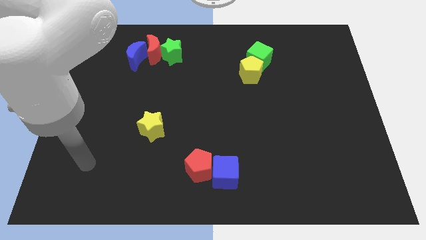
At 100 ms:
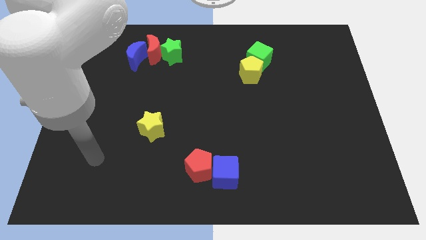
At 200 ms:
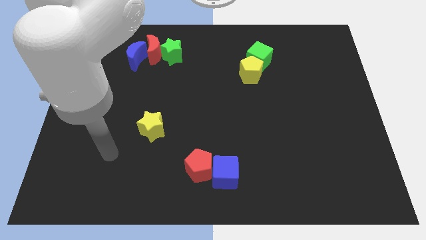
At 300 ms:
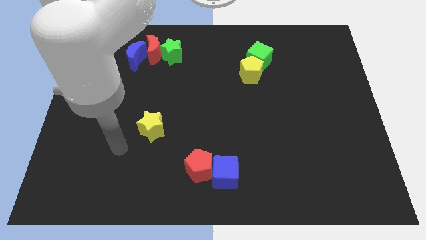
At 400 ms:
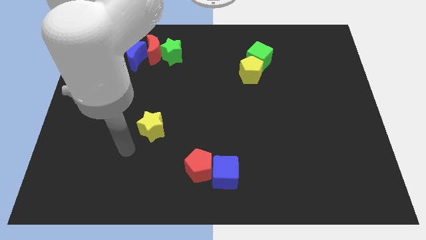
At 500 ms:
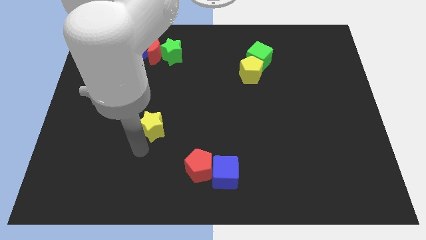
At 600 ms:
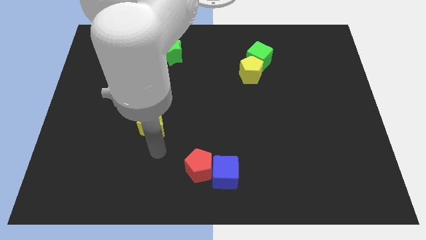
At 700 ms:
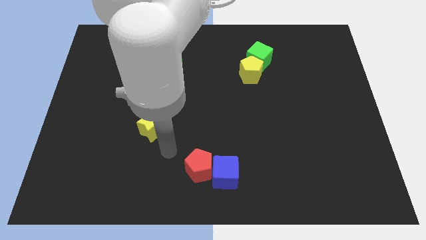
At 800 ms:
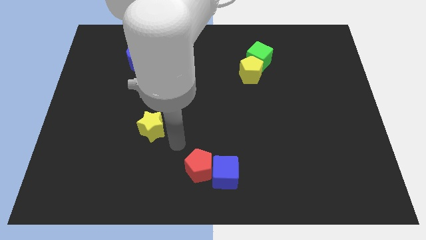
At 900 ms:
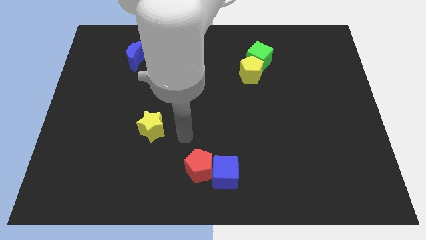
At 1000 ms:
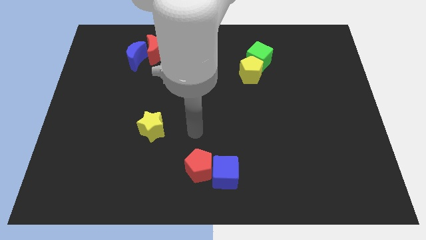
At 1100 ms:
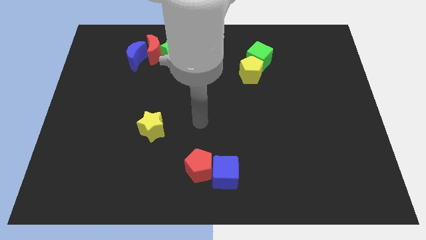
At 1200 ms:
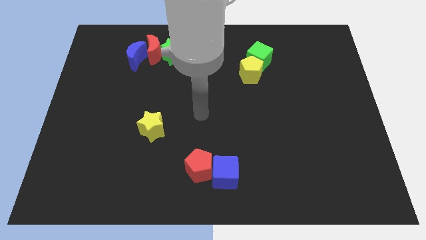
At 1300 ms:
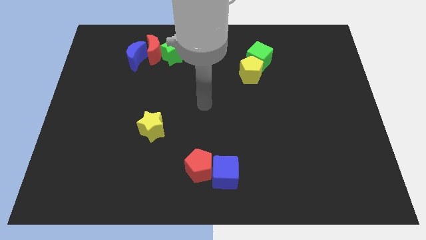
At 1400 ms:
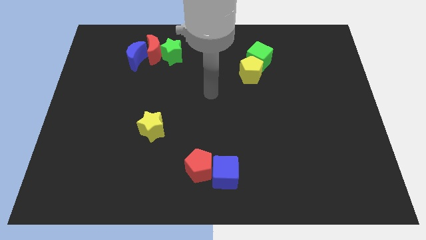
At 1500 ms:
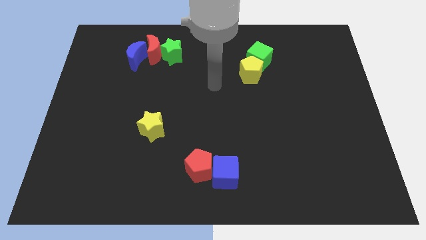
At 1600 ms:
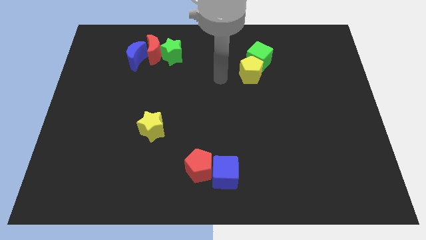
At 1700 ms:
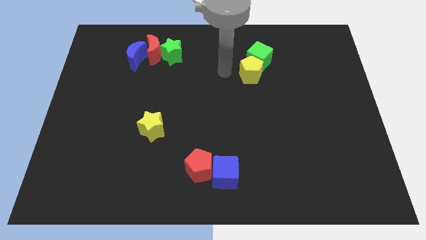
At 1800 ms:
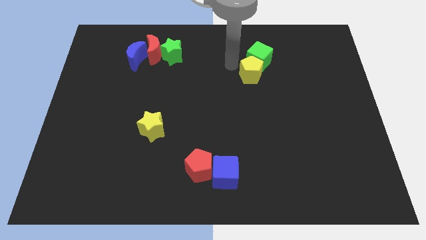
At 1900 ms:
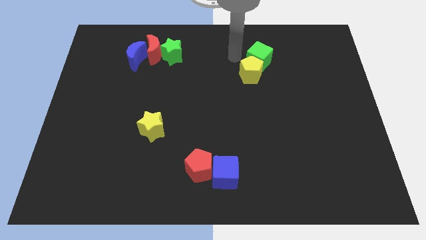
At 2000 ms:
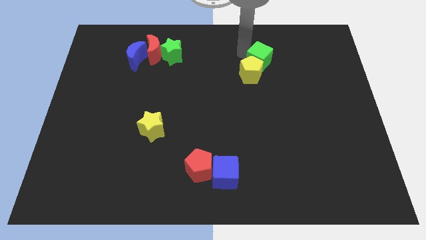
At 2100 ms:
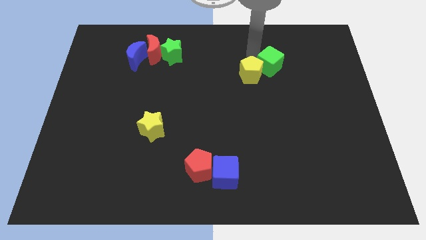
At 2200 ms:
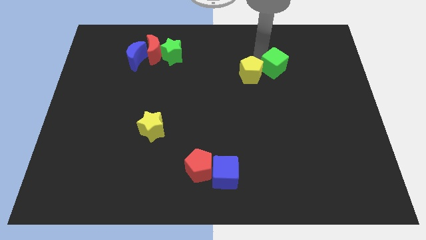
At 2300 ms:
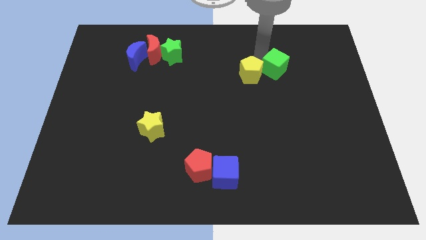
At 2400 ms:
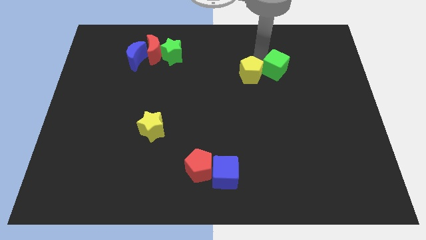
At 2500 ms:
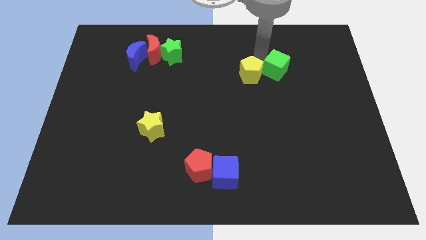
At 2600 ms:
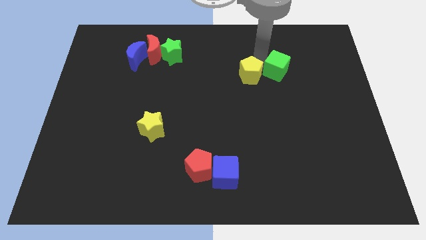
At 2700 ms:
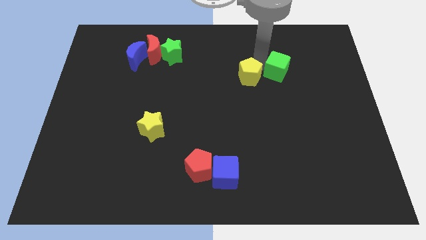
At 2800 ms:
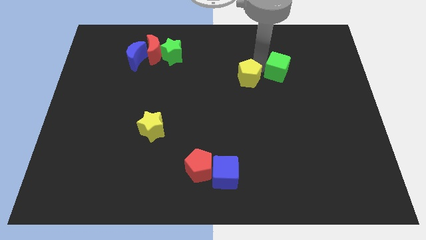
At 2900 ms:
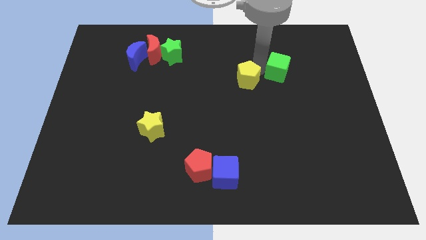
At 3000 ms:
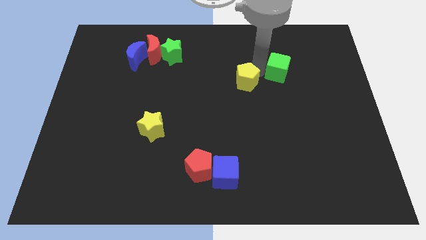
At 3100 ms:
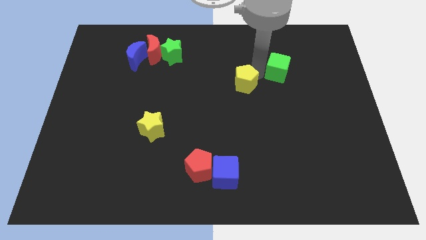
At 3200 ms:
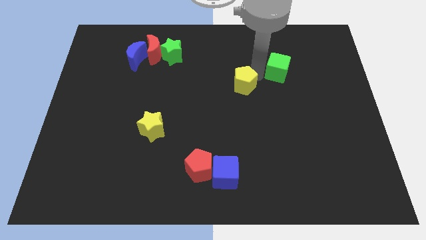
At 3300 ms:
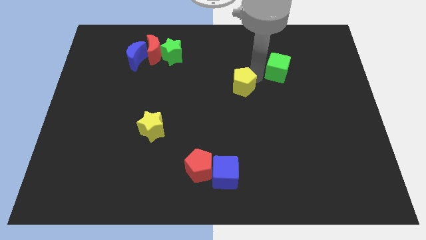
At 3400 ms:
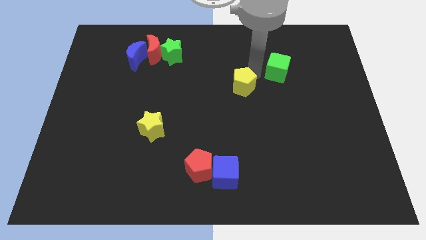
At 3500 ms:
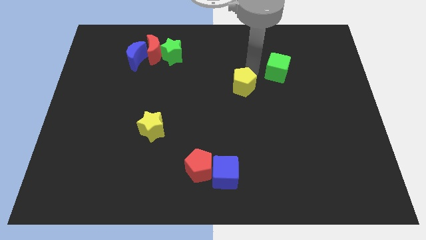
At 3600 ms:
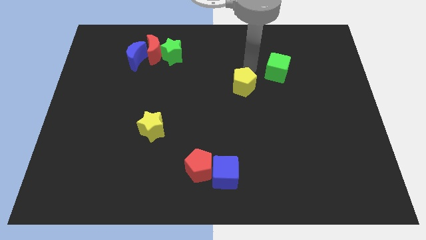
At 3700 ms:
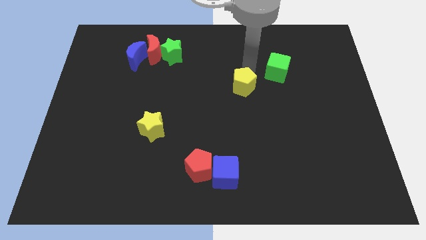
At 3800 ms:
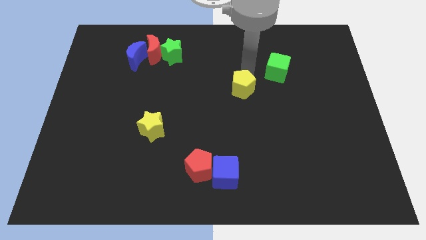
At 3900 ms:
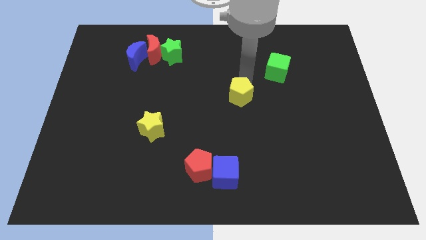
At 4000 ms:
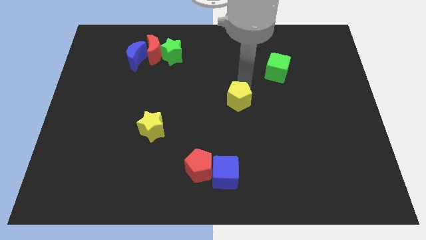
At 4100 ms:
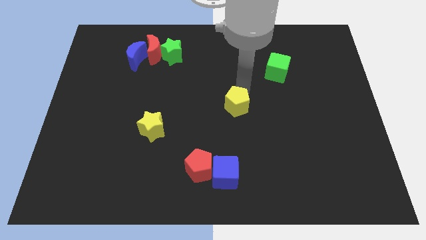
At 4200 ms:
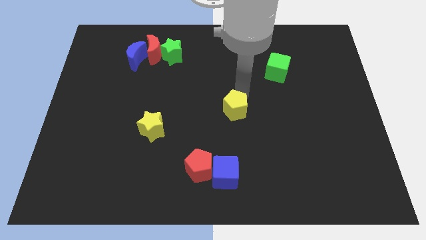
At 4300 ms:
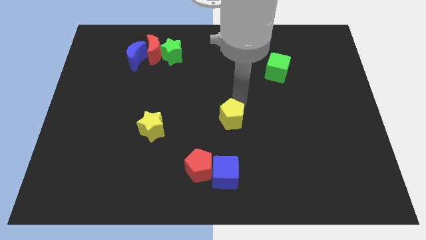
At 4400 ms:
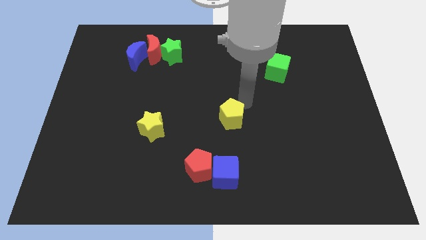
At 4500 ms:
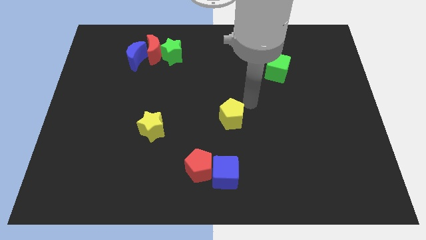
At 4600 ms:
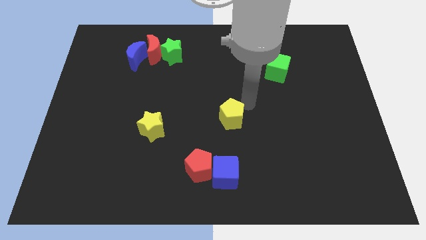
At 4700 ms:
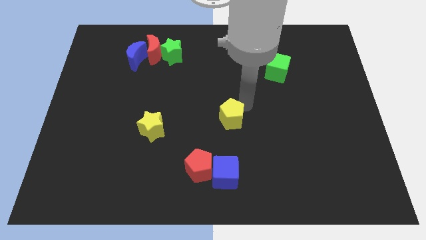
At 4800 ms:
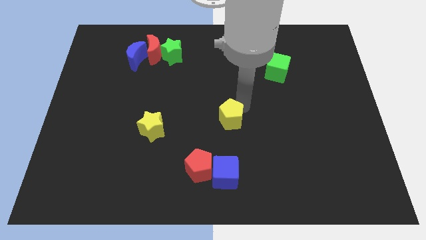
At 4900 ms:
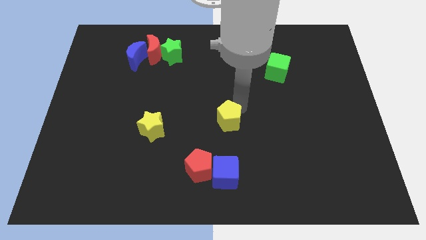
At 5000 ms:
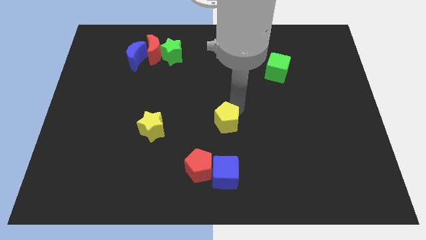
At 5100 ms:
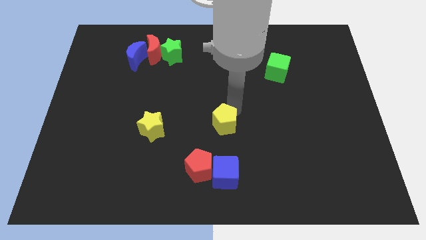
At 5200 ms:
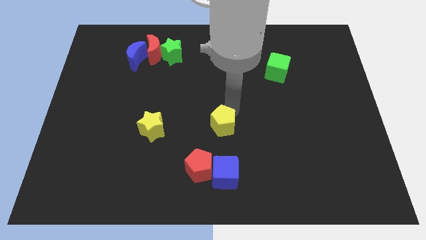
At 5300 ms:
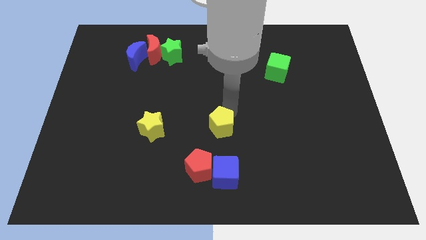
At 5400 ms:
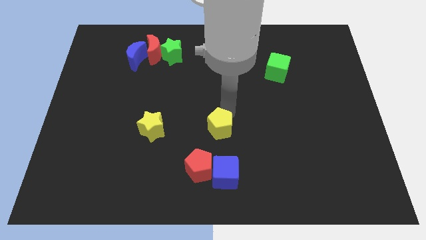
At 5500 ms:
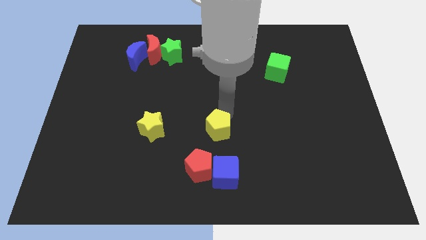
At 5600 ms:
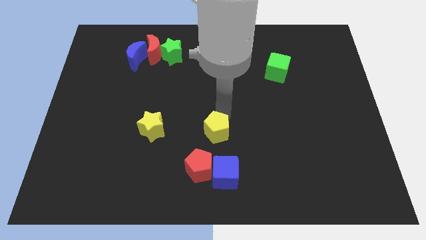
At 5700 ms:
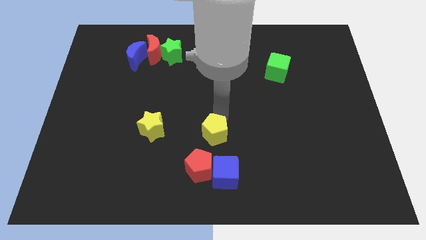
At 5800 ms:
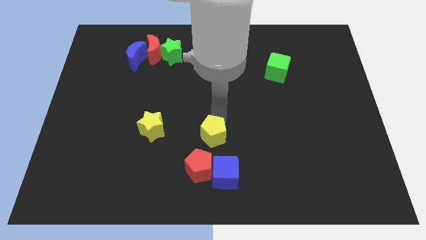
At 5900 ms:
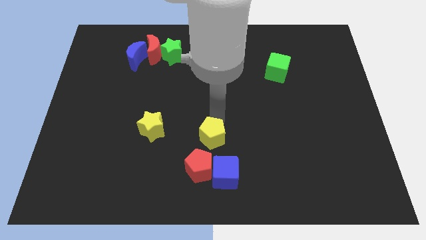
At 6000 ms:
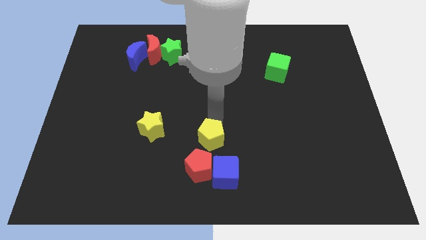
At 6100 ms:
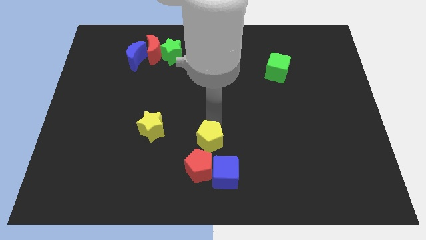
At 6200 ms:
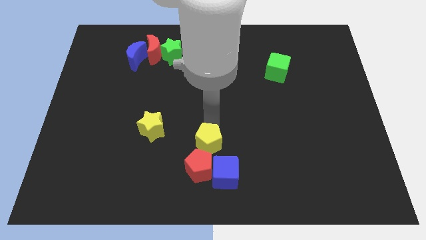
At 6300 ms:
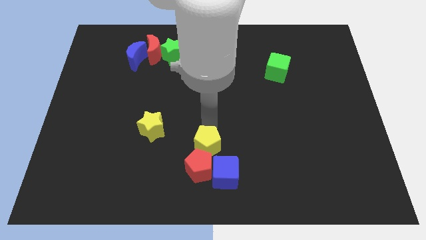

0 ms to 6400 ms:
move the yellow pentagon next to the red pentagon
